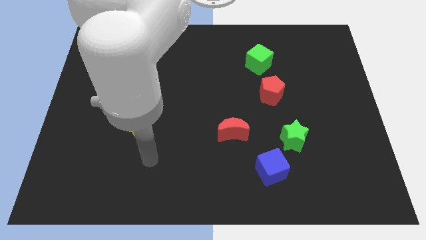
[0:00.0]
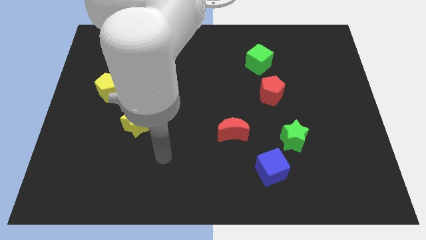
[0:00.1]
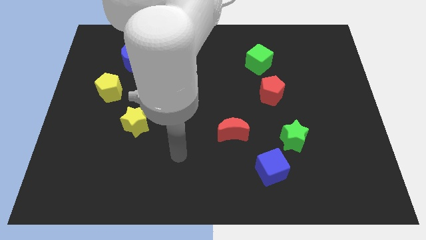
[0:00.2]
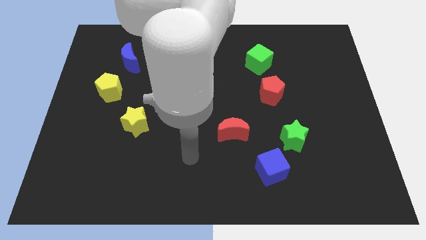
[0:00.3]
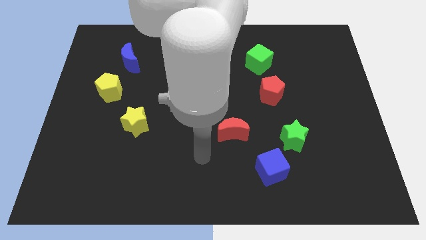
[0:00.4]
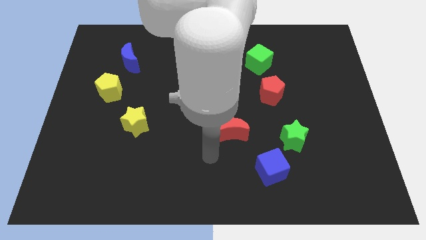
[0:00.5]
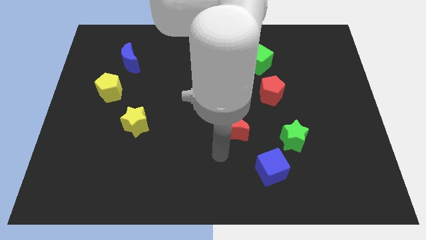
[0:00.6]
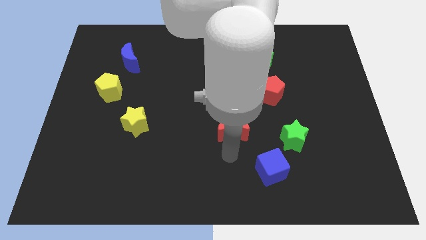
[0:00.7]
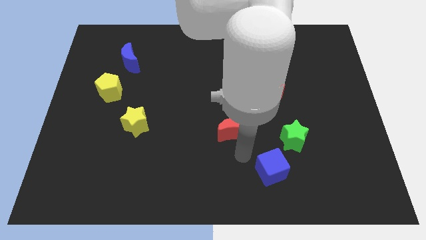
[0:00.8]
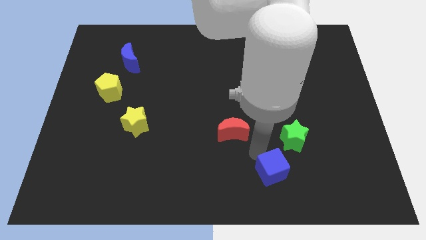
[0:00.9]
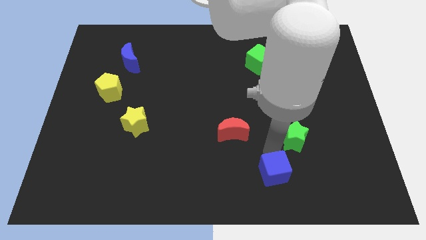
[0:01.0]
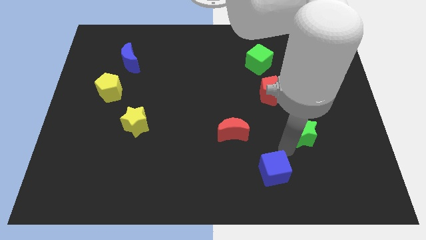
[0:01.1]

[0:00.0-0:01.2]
move the blue cube away from the green star

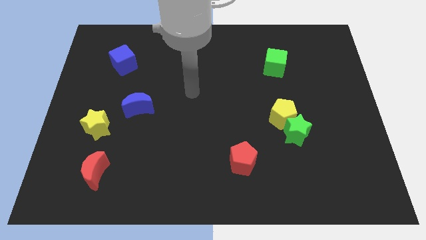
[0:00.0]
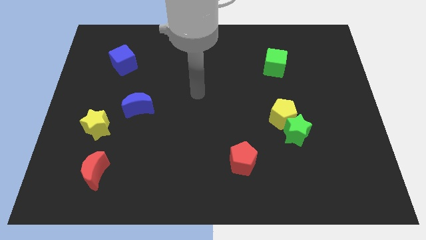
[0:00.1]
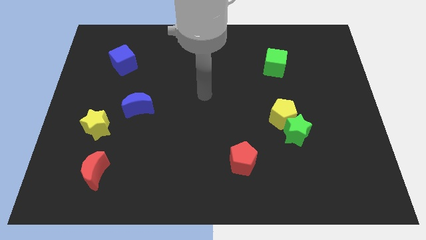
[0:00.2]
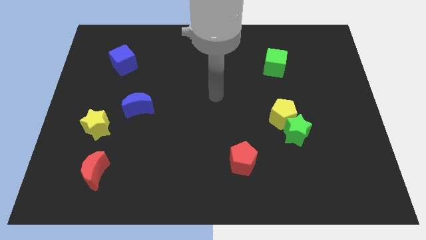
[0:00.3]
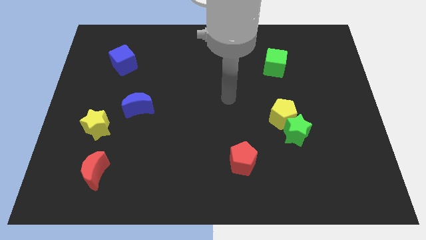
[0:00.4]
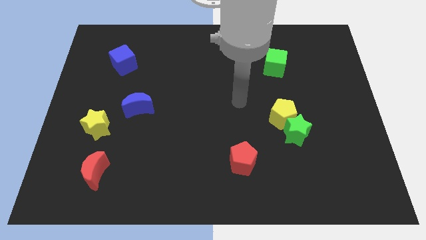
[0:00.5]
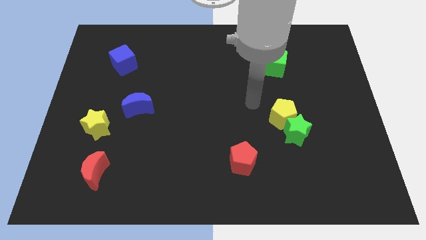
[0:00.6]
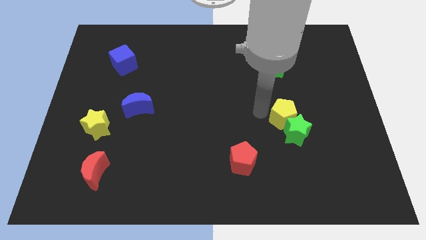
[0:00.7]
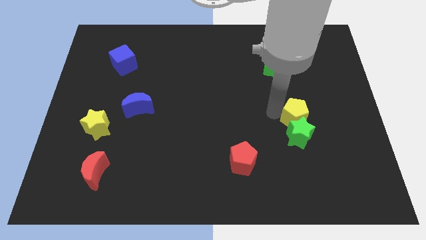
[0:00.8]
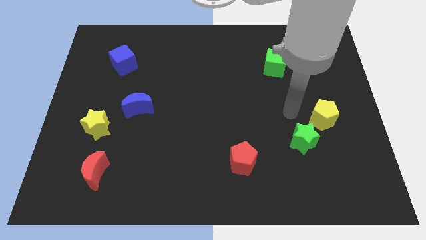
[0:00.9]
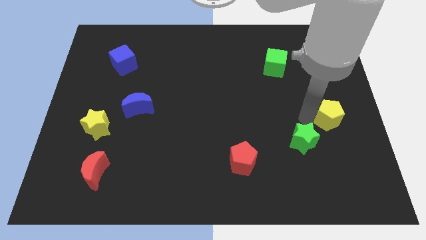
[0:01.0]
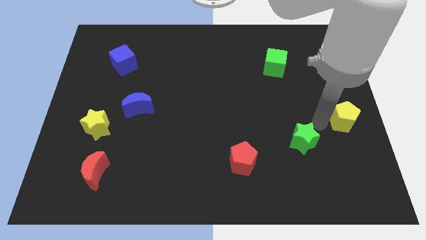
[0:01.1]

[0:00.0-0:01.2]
pull the green star apart from the yellow pentagon

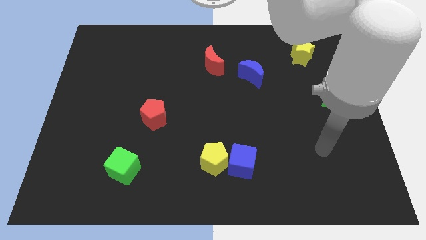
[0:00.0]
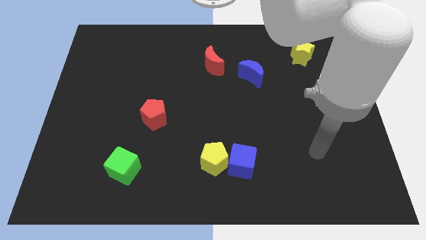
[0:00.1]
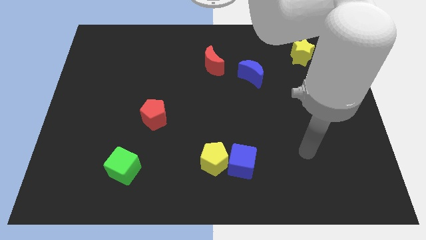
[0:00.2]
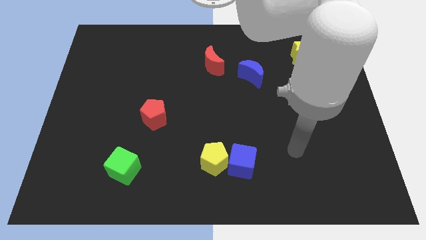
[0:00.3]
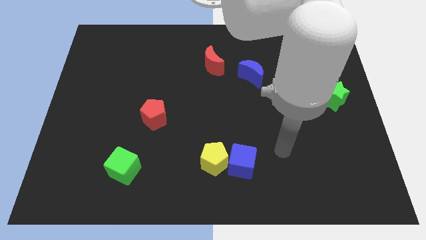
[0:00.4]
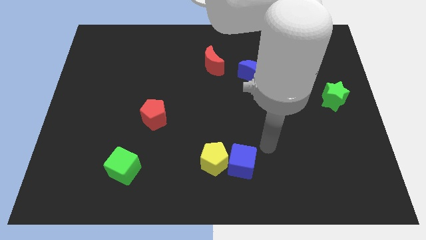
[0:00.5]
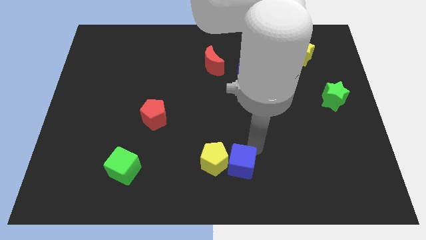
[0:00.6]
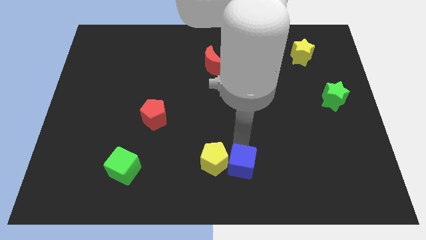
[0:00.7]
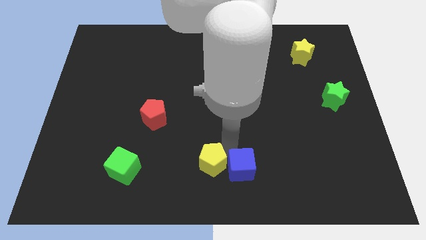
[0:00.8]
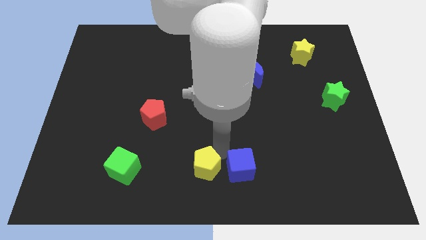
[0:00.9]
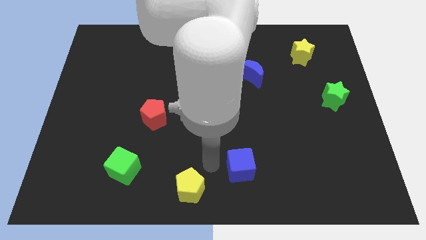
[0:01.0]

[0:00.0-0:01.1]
move the blue cube away from the yellow pentagon

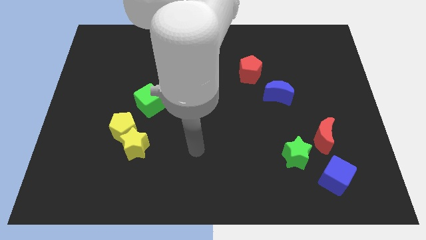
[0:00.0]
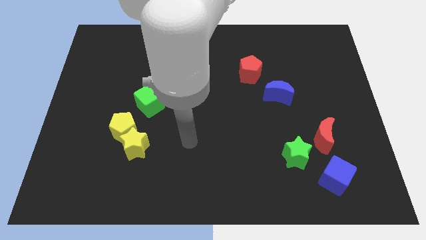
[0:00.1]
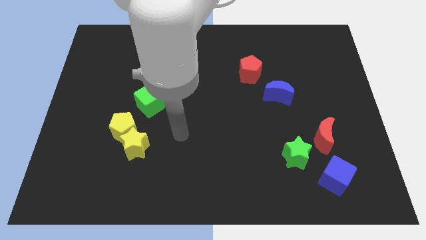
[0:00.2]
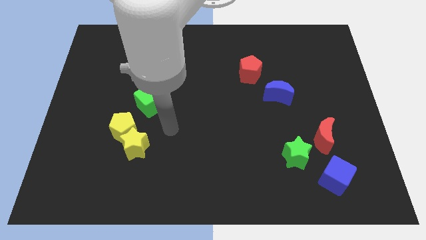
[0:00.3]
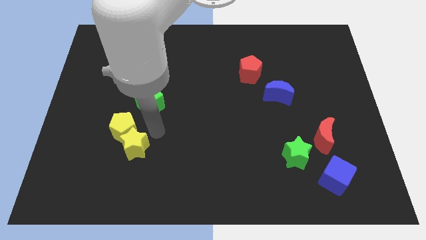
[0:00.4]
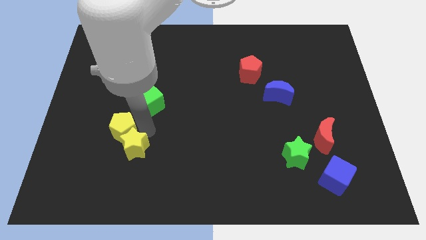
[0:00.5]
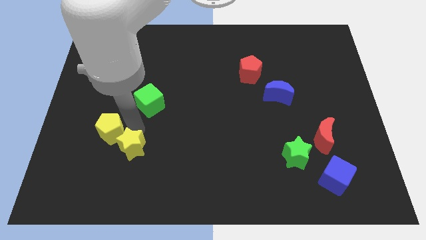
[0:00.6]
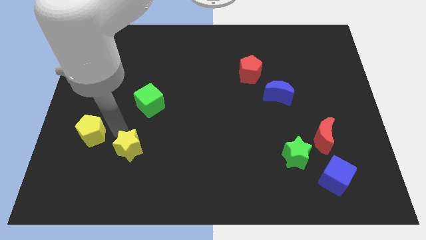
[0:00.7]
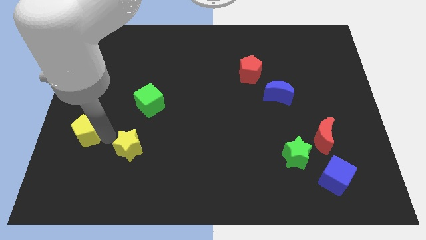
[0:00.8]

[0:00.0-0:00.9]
move the yellow star away from the yellow pentagon

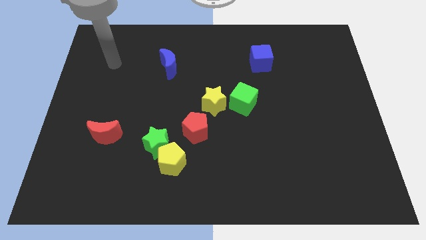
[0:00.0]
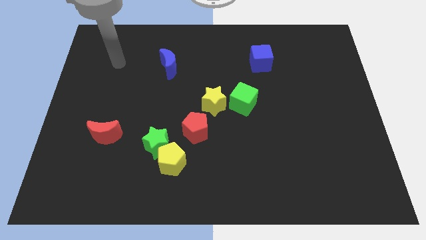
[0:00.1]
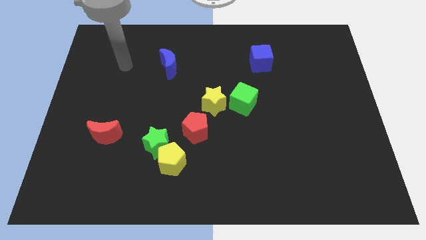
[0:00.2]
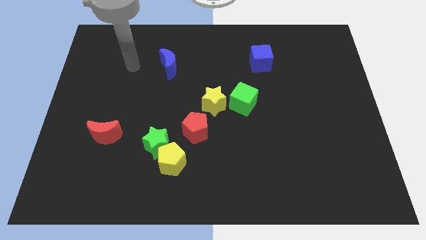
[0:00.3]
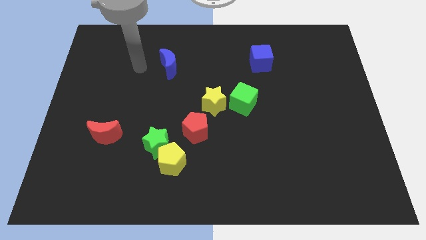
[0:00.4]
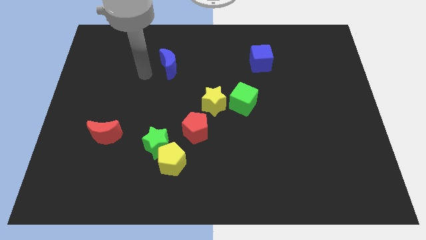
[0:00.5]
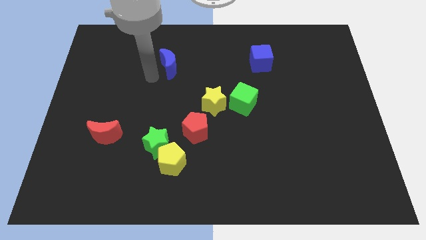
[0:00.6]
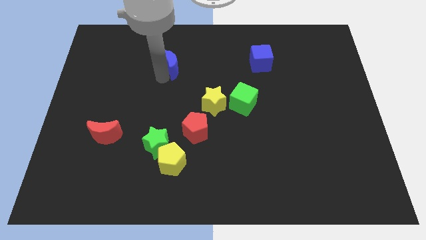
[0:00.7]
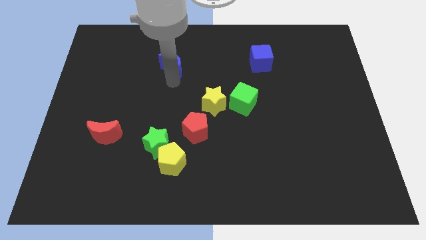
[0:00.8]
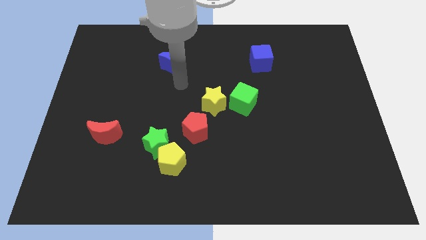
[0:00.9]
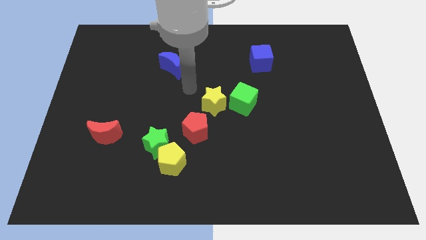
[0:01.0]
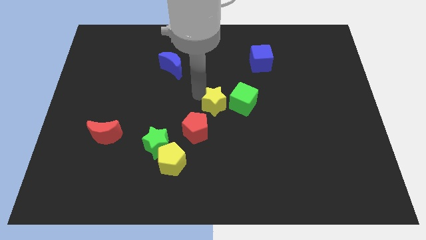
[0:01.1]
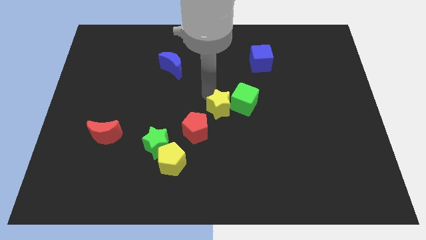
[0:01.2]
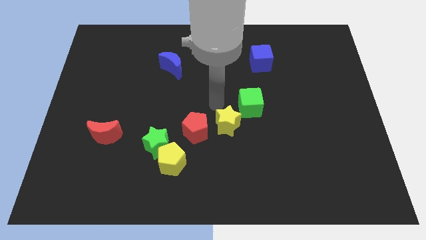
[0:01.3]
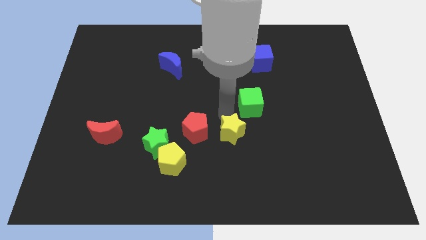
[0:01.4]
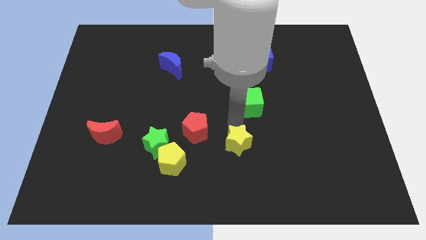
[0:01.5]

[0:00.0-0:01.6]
move the green cube away from the yellow star

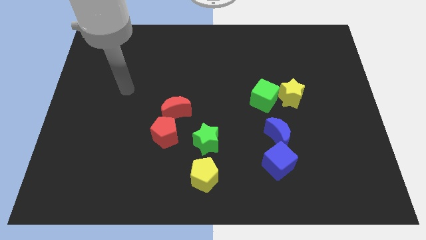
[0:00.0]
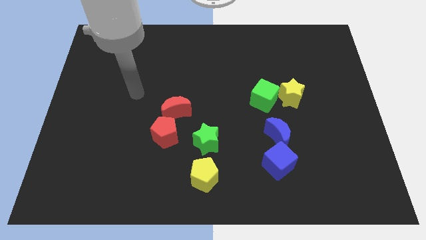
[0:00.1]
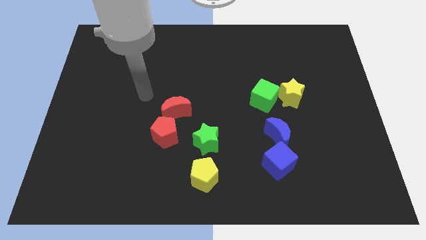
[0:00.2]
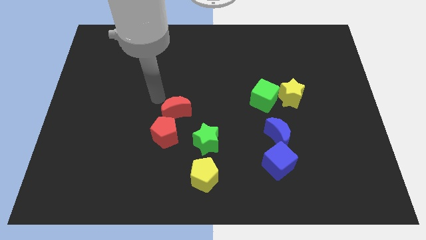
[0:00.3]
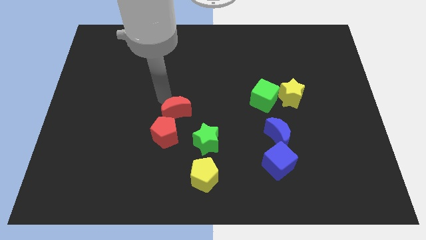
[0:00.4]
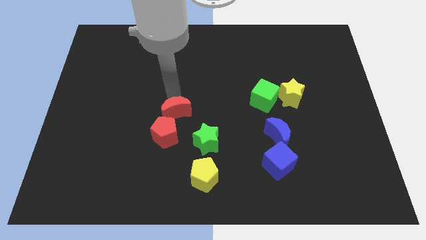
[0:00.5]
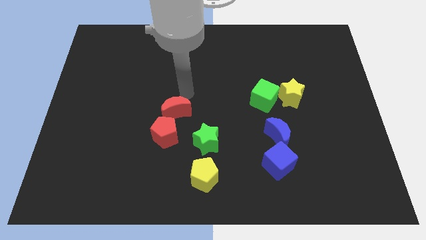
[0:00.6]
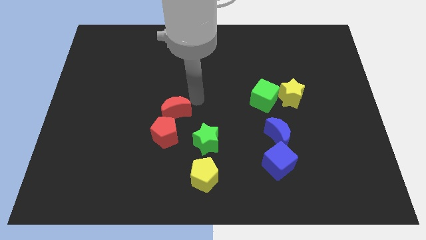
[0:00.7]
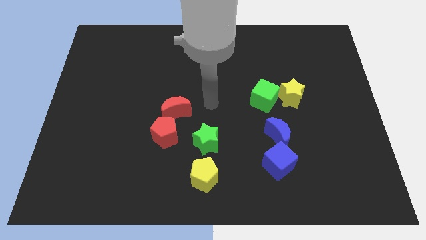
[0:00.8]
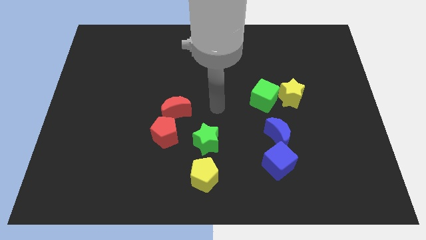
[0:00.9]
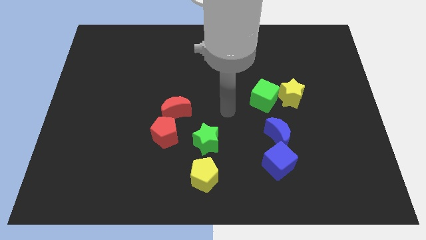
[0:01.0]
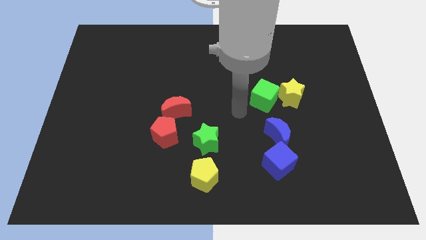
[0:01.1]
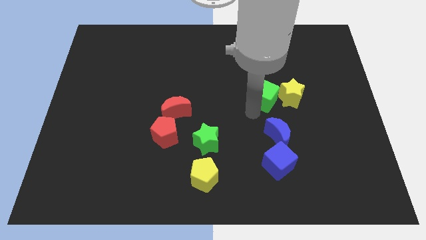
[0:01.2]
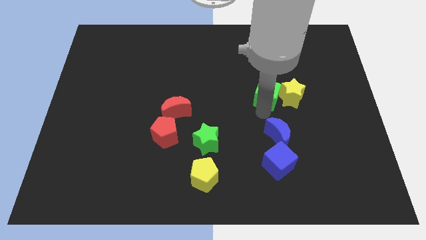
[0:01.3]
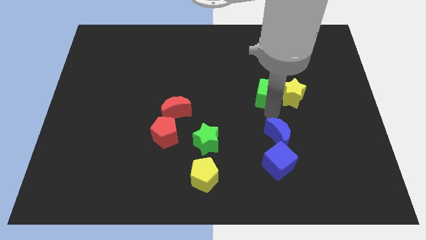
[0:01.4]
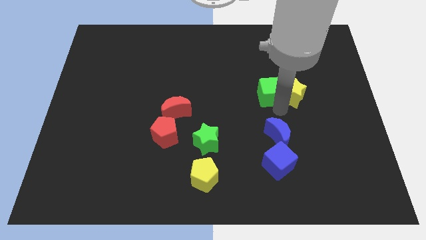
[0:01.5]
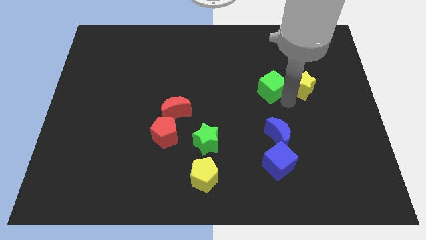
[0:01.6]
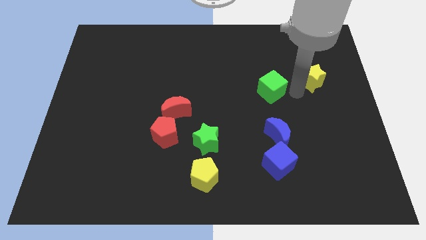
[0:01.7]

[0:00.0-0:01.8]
separate the green cube from the yellow star

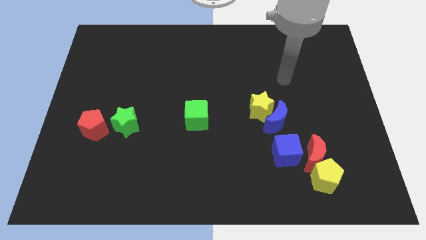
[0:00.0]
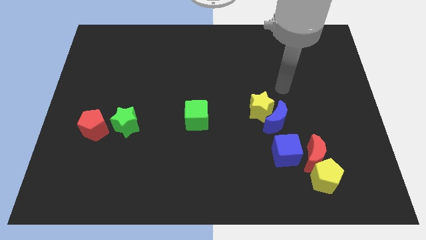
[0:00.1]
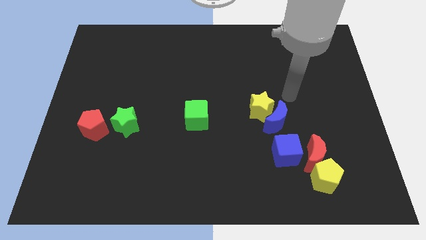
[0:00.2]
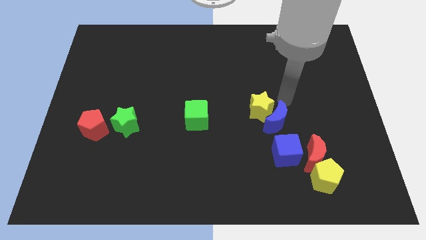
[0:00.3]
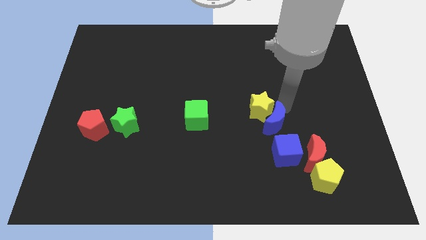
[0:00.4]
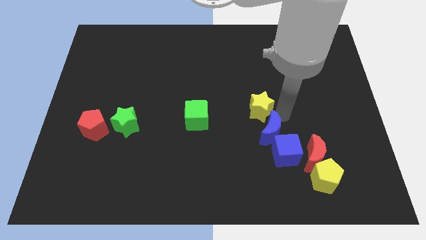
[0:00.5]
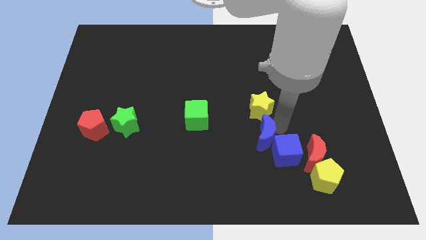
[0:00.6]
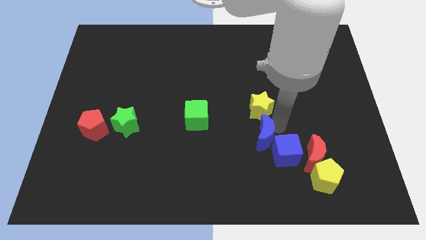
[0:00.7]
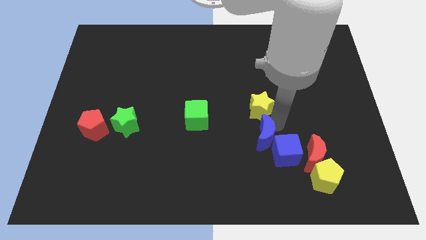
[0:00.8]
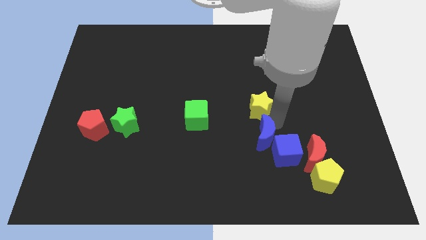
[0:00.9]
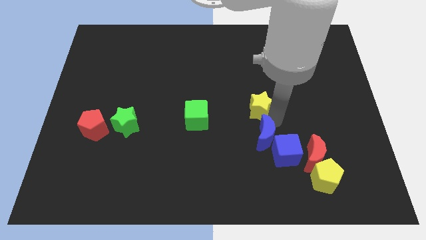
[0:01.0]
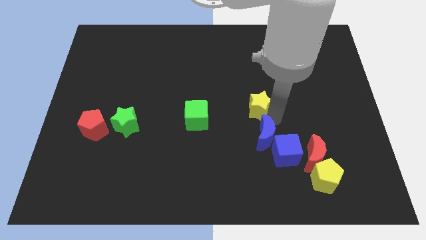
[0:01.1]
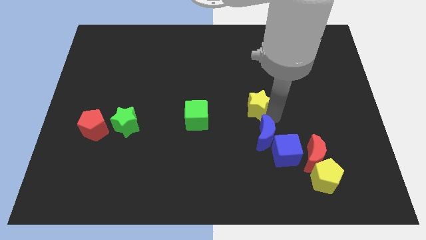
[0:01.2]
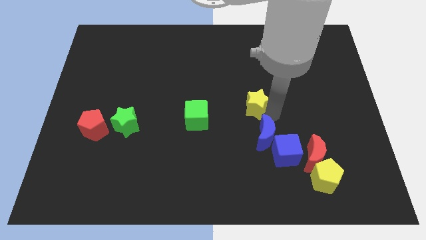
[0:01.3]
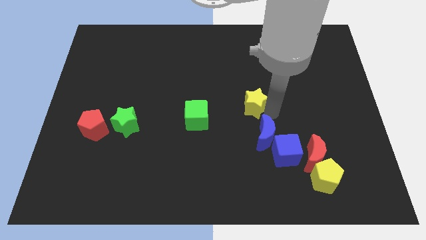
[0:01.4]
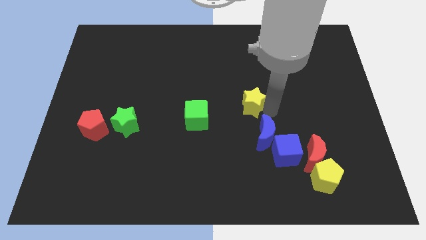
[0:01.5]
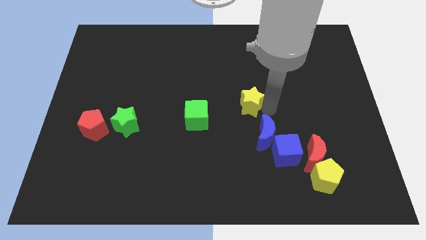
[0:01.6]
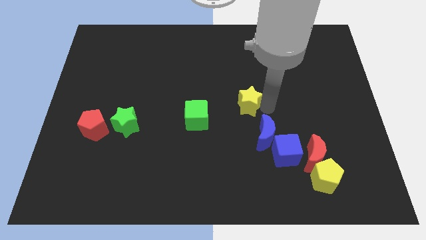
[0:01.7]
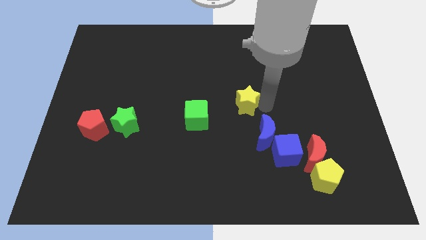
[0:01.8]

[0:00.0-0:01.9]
separate the yellow star from the blue moon
